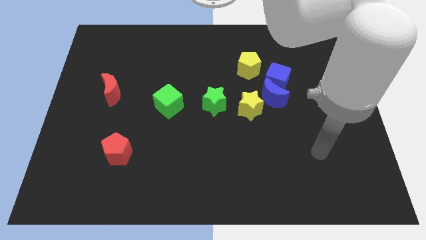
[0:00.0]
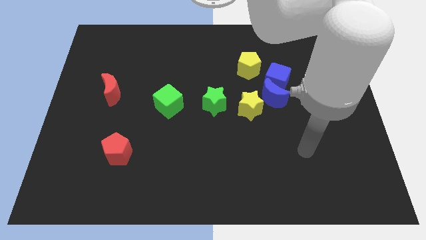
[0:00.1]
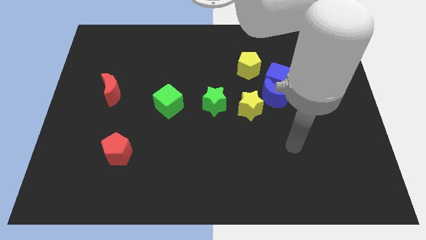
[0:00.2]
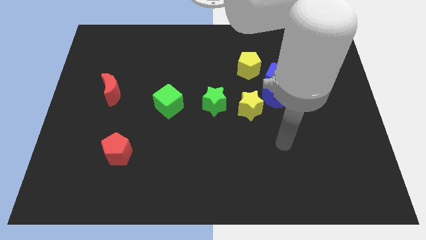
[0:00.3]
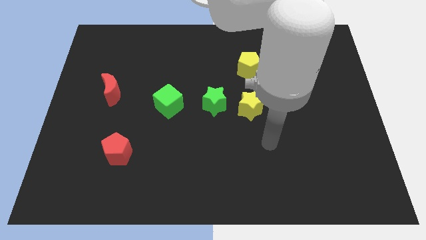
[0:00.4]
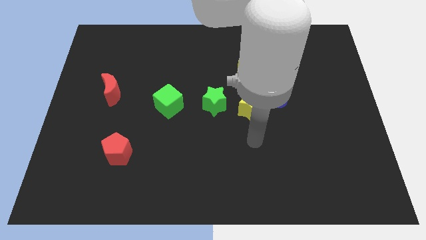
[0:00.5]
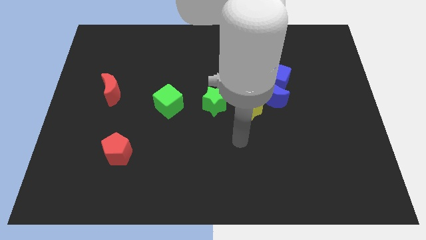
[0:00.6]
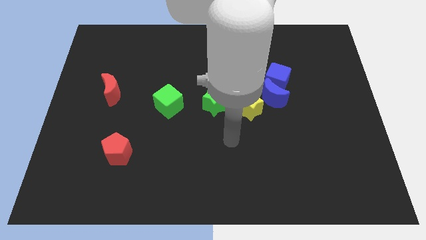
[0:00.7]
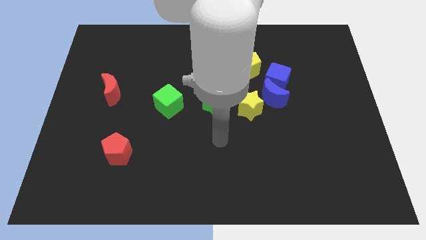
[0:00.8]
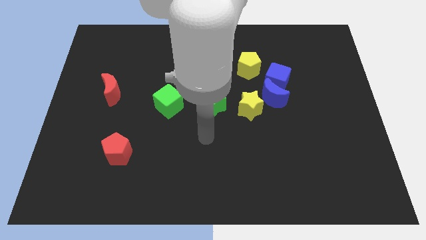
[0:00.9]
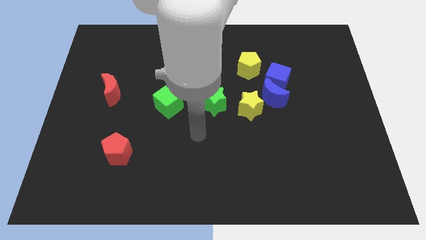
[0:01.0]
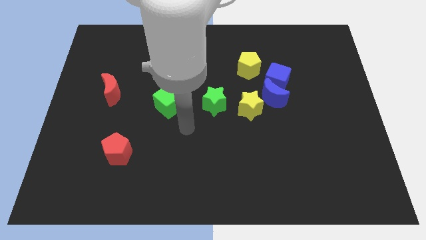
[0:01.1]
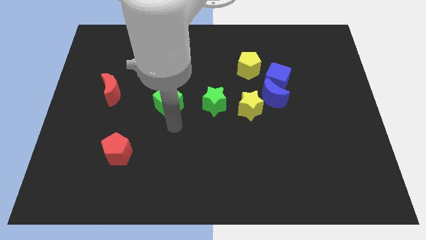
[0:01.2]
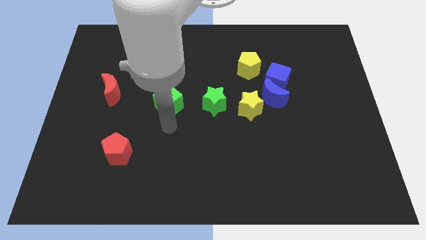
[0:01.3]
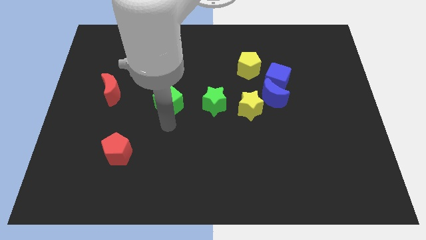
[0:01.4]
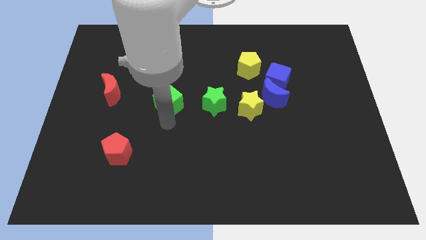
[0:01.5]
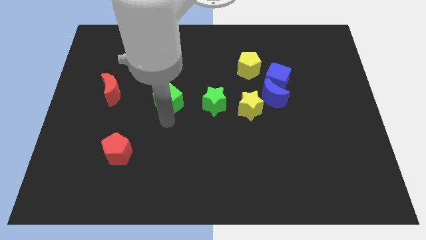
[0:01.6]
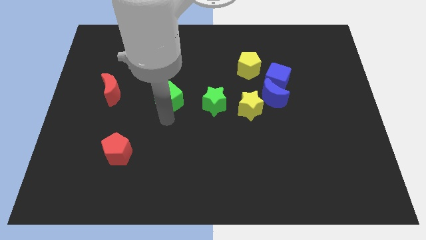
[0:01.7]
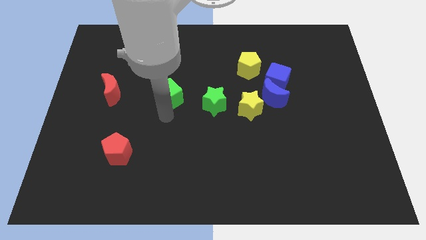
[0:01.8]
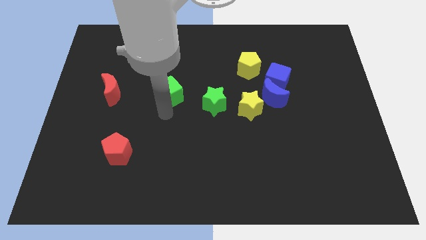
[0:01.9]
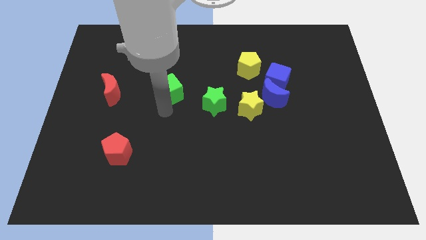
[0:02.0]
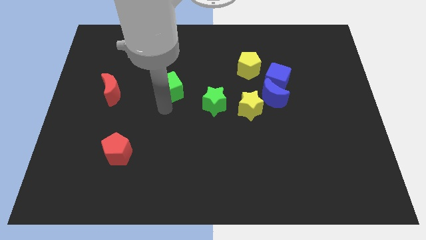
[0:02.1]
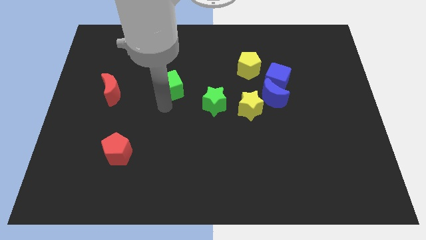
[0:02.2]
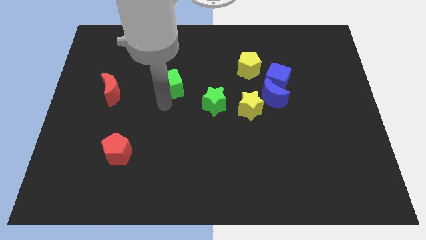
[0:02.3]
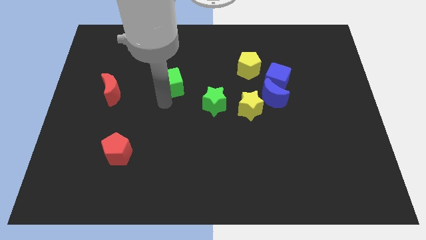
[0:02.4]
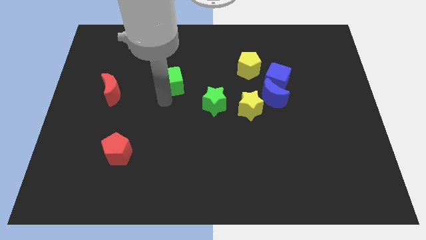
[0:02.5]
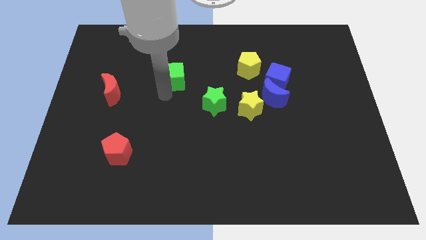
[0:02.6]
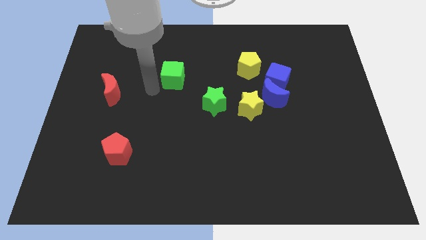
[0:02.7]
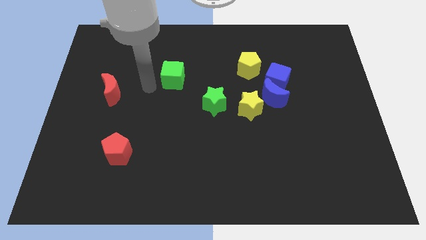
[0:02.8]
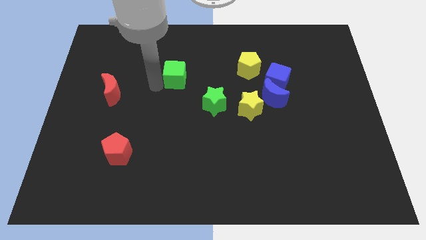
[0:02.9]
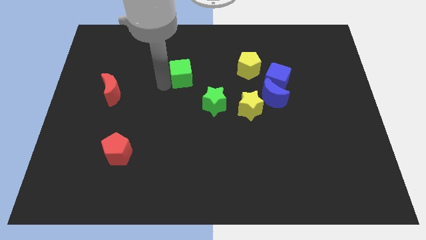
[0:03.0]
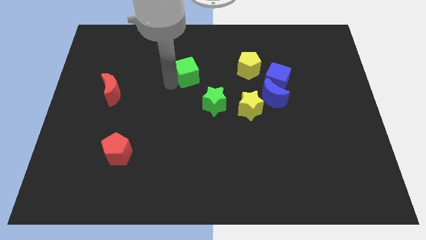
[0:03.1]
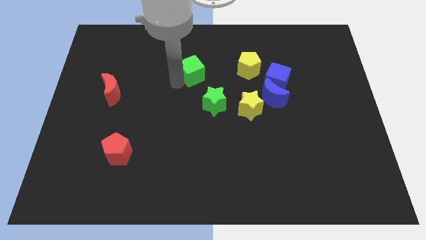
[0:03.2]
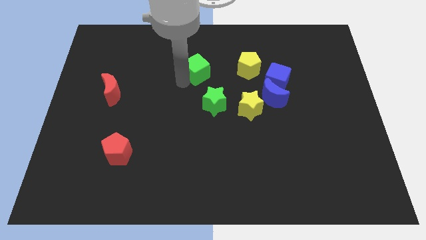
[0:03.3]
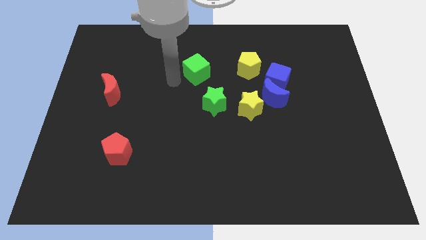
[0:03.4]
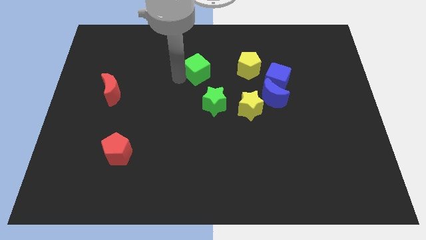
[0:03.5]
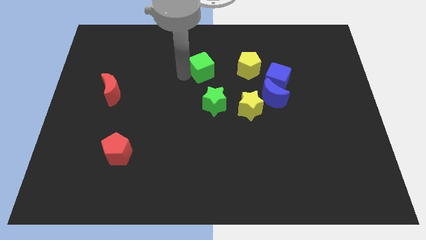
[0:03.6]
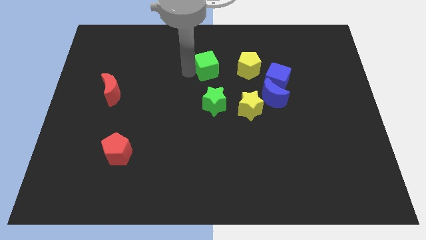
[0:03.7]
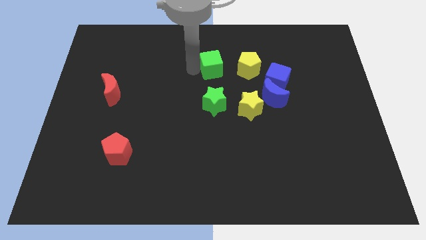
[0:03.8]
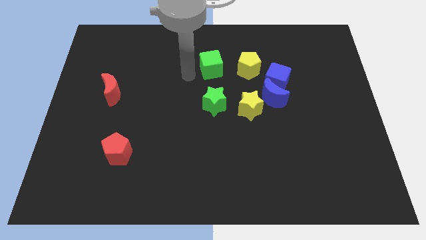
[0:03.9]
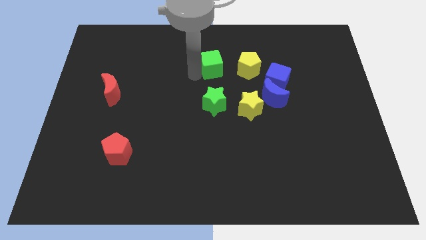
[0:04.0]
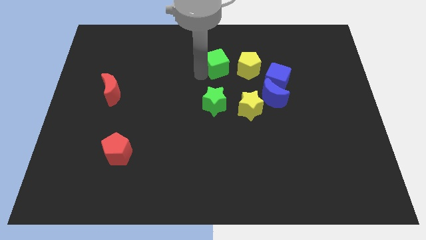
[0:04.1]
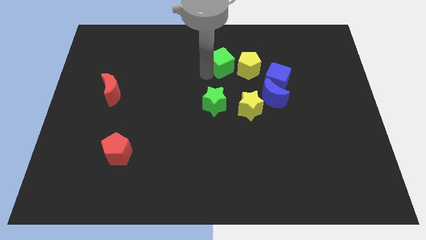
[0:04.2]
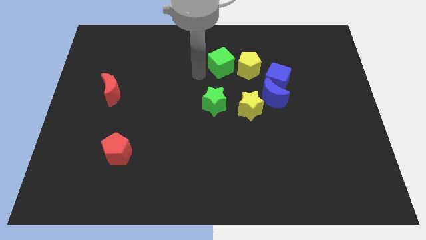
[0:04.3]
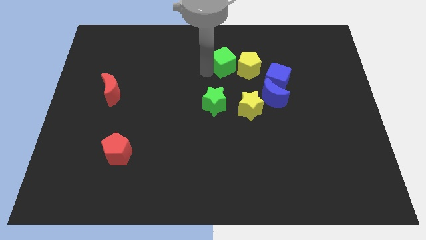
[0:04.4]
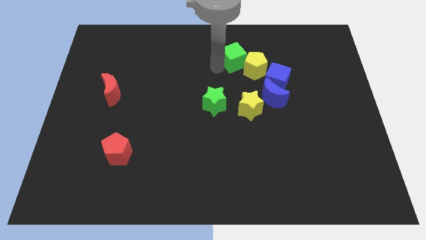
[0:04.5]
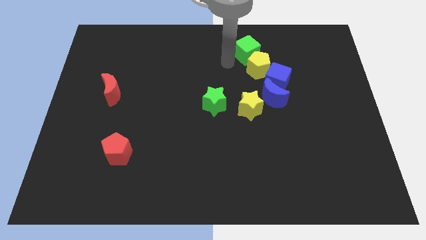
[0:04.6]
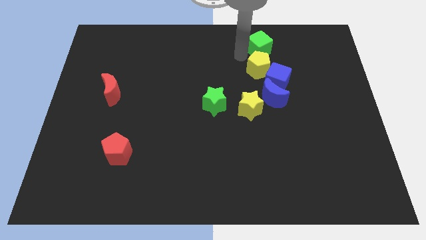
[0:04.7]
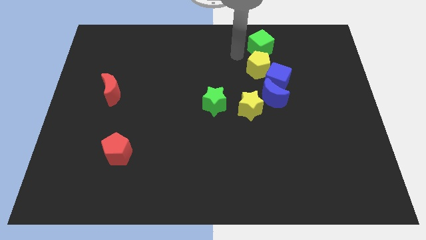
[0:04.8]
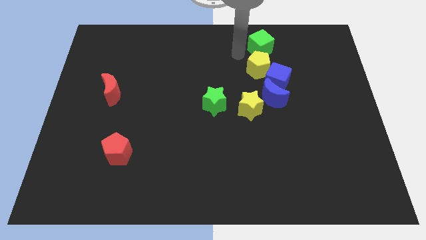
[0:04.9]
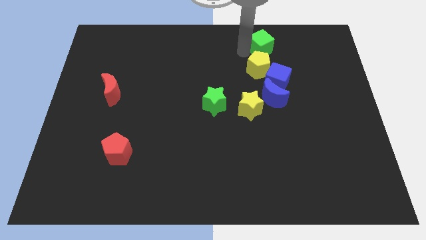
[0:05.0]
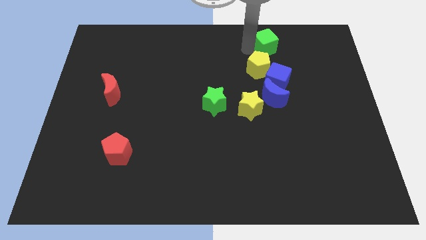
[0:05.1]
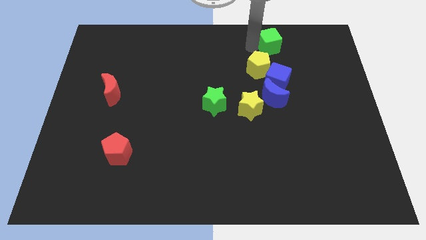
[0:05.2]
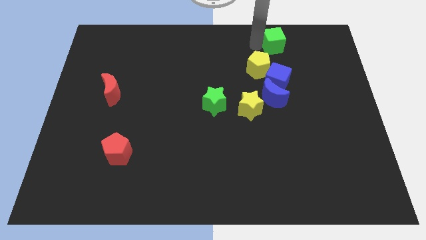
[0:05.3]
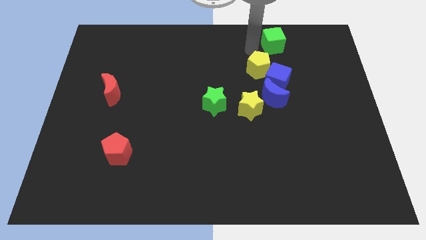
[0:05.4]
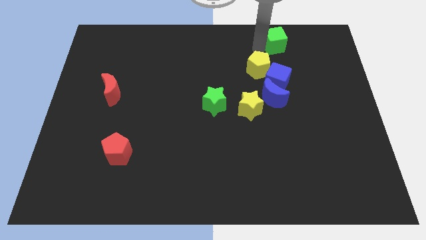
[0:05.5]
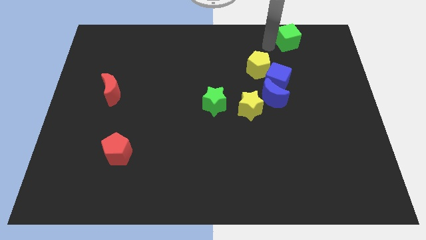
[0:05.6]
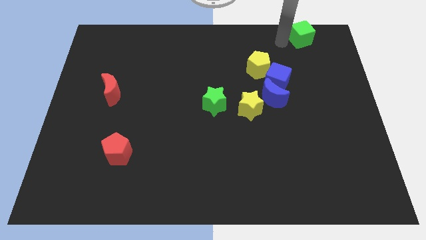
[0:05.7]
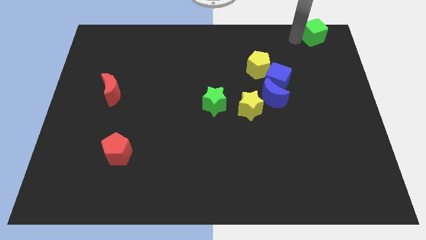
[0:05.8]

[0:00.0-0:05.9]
move the green cube to the top right corner
